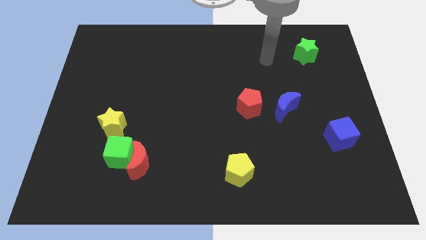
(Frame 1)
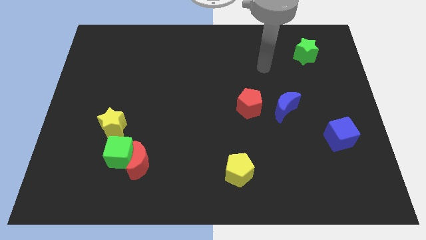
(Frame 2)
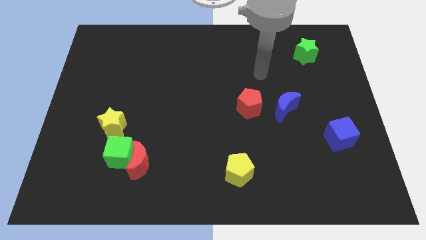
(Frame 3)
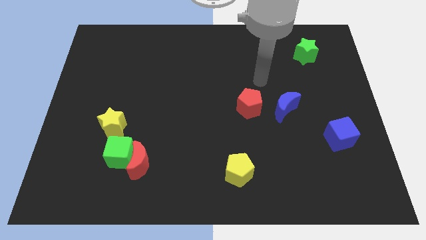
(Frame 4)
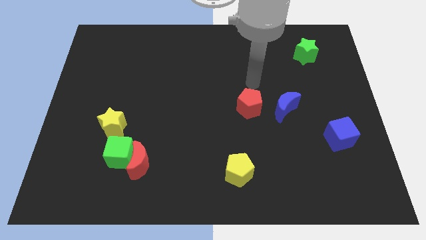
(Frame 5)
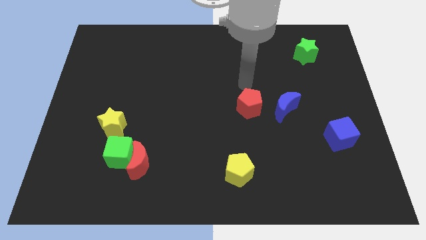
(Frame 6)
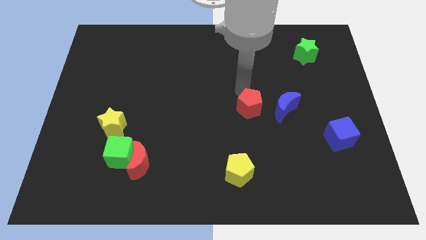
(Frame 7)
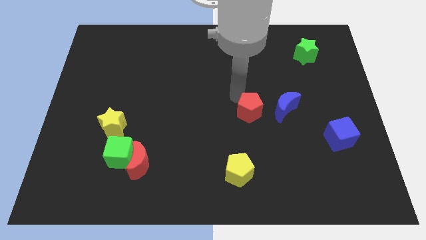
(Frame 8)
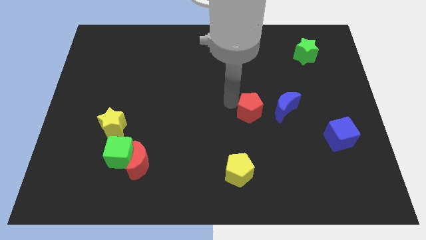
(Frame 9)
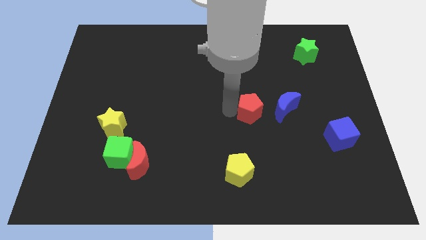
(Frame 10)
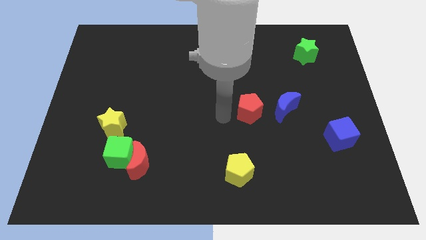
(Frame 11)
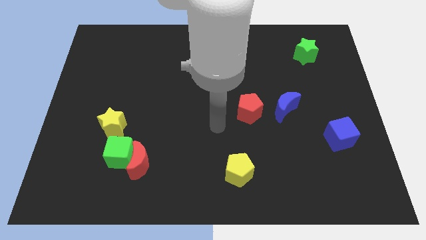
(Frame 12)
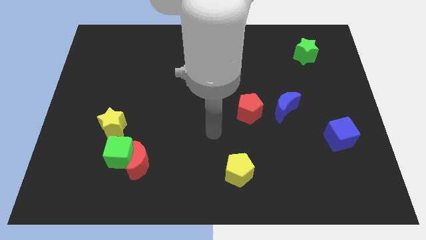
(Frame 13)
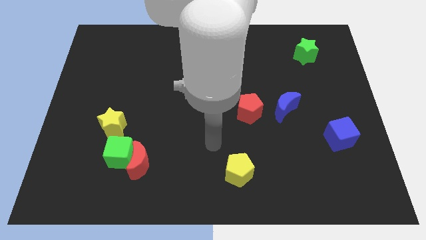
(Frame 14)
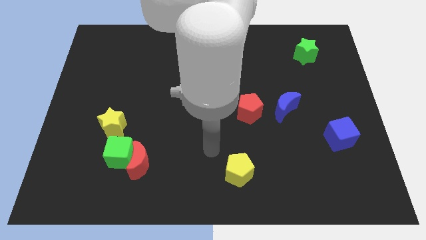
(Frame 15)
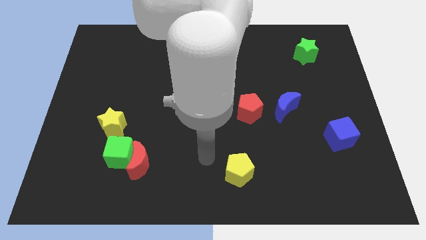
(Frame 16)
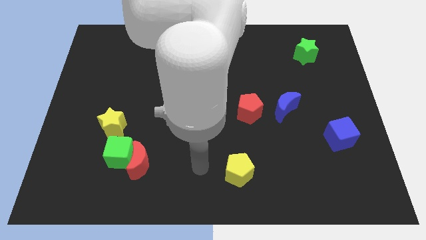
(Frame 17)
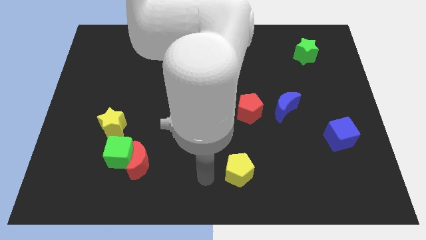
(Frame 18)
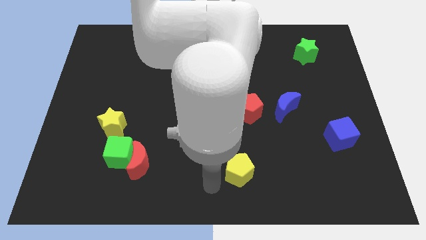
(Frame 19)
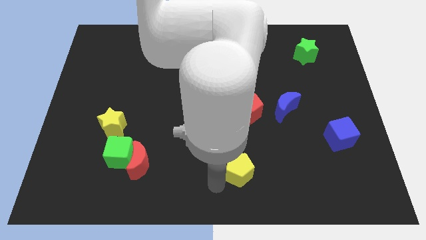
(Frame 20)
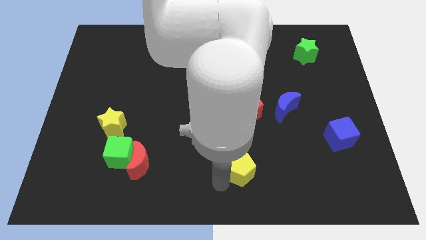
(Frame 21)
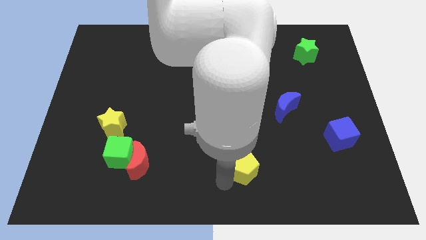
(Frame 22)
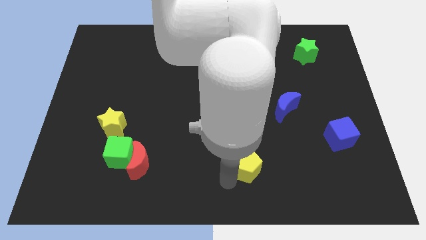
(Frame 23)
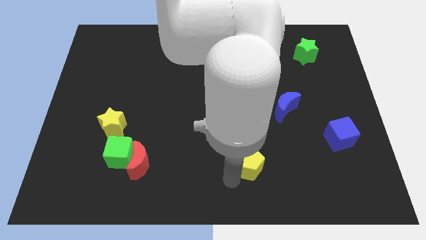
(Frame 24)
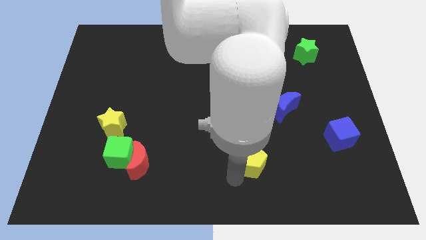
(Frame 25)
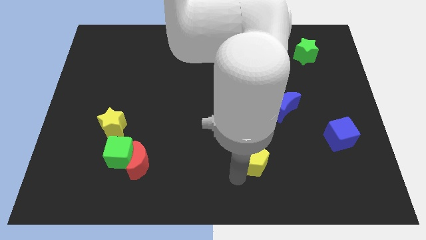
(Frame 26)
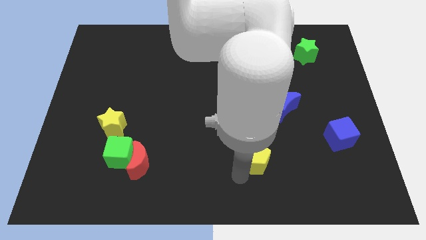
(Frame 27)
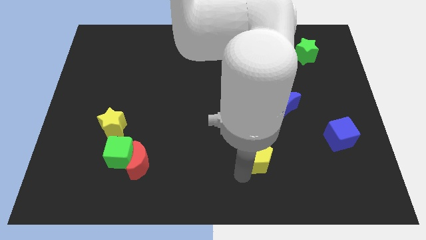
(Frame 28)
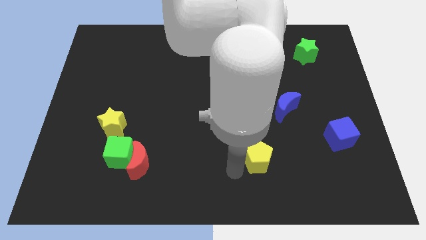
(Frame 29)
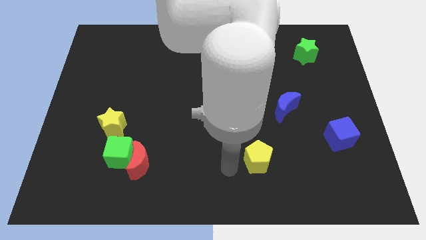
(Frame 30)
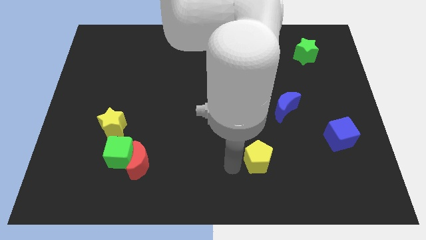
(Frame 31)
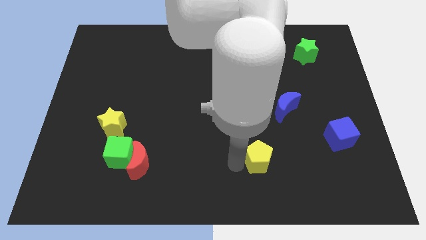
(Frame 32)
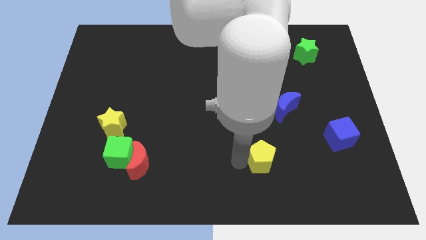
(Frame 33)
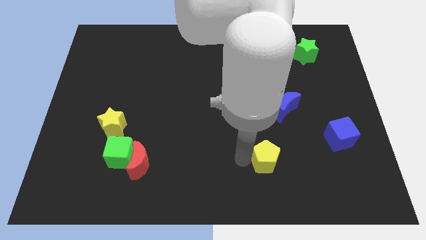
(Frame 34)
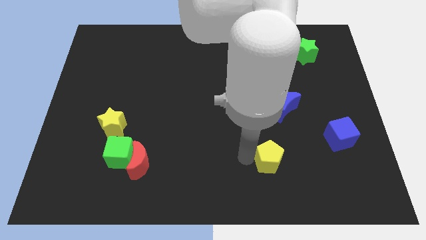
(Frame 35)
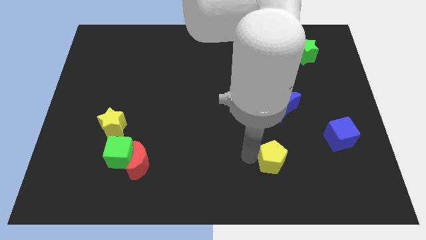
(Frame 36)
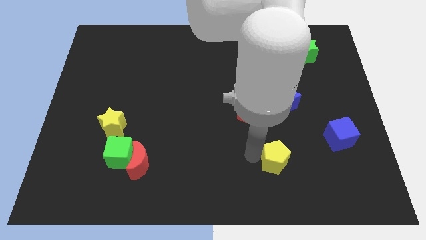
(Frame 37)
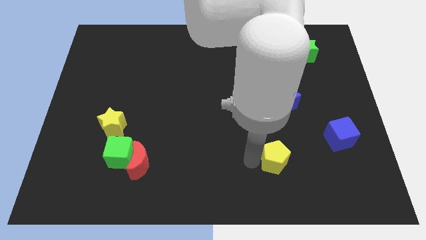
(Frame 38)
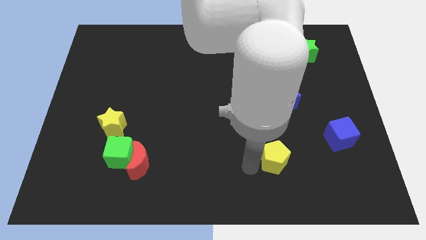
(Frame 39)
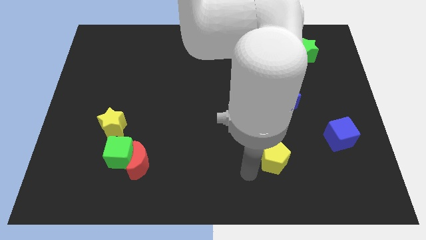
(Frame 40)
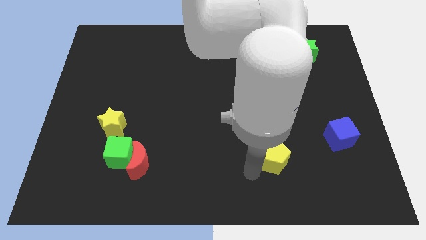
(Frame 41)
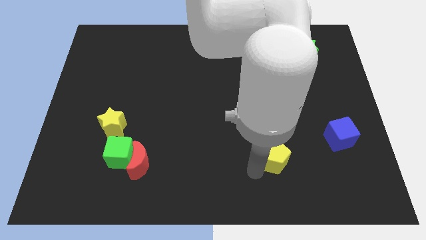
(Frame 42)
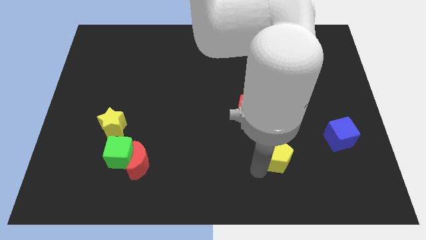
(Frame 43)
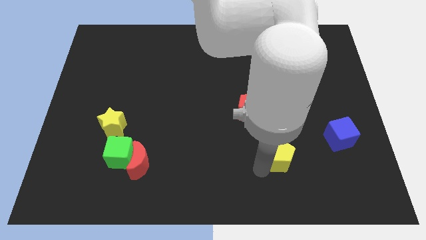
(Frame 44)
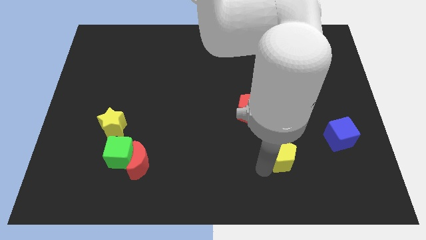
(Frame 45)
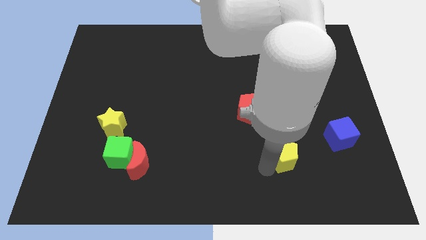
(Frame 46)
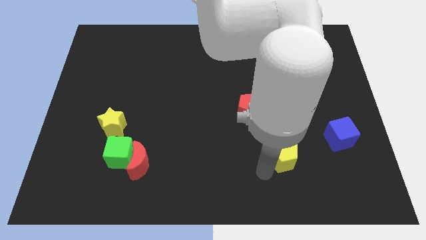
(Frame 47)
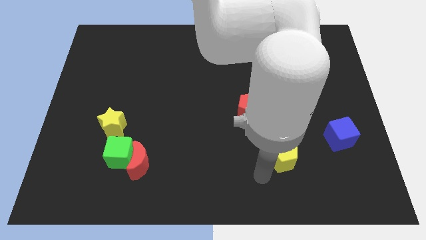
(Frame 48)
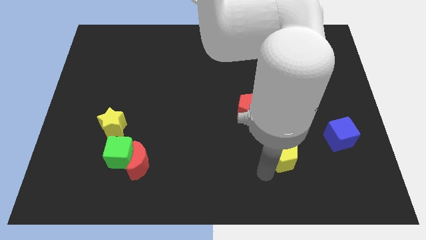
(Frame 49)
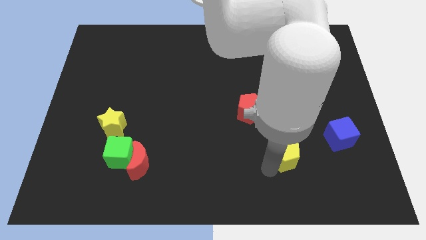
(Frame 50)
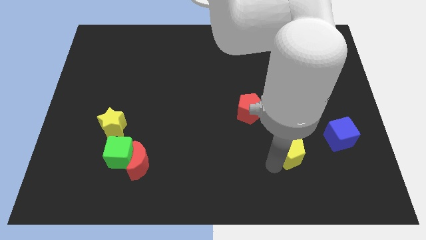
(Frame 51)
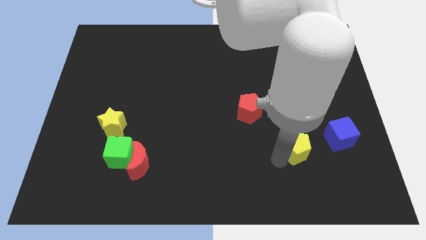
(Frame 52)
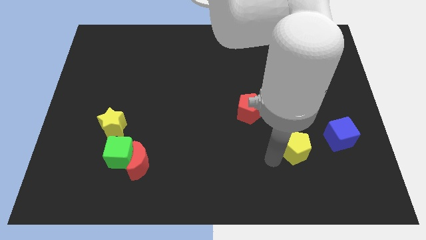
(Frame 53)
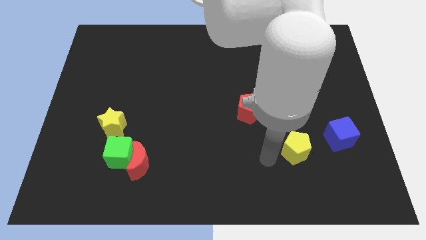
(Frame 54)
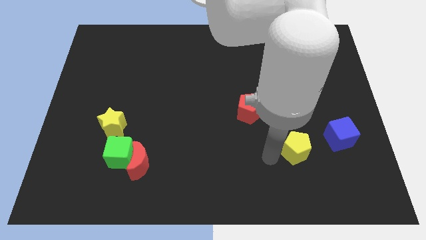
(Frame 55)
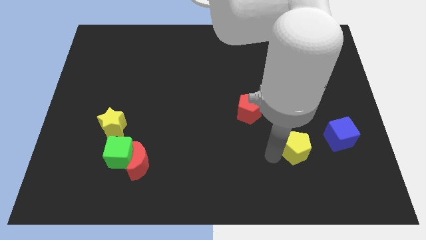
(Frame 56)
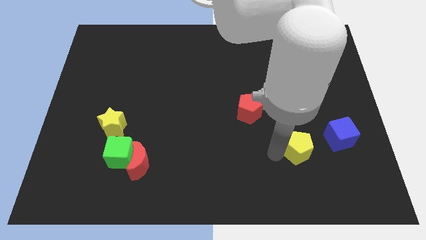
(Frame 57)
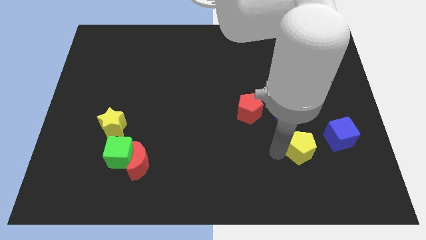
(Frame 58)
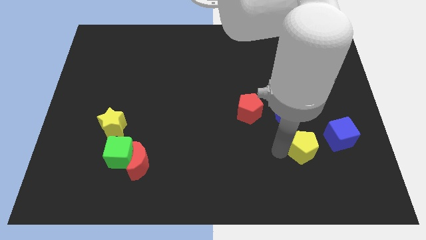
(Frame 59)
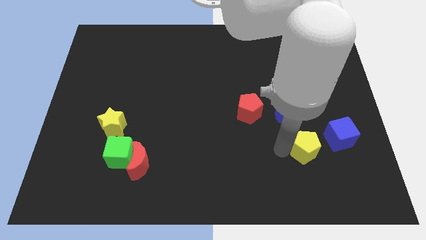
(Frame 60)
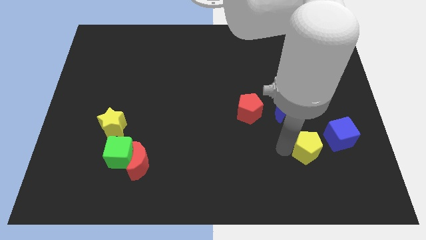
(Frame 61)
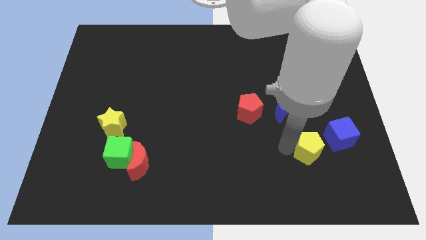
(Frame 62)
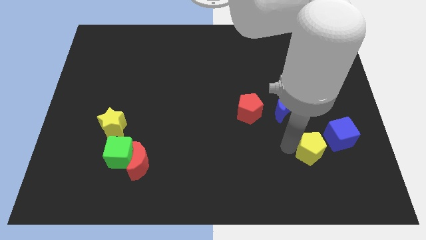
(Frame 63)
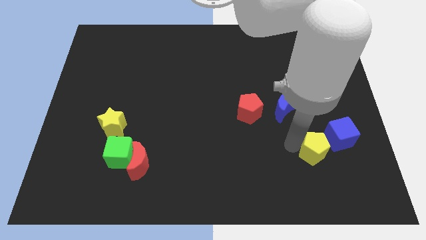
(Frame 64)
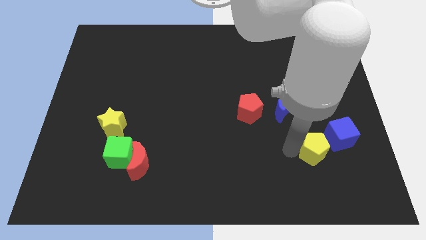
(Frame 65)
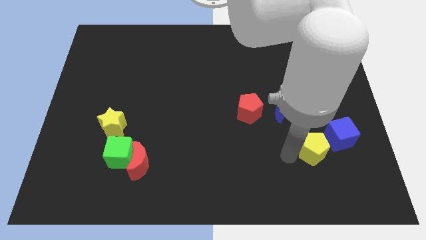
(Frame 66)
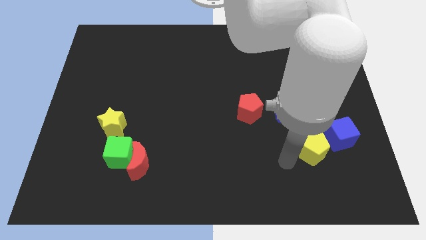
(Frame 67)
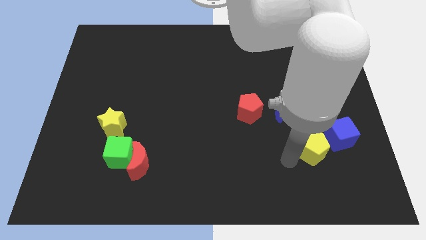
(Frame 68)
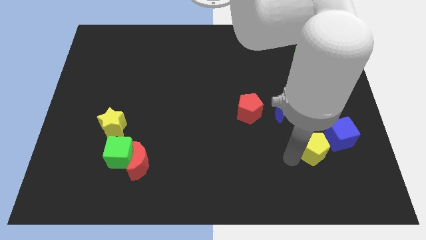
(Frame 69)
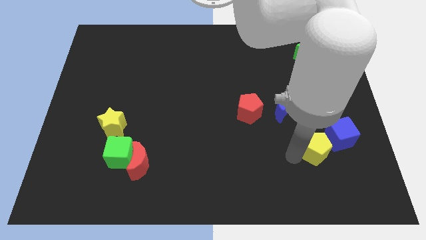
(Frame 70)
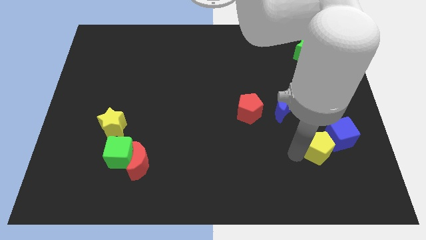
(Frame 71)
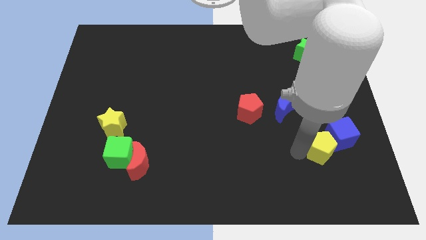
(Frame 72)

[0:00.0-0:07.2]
put the yellow pentagon to the blue cube

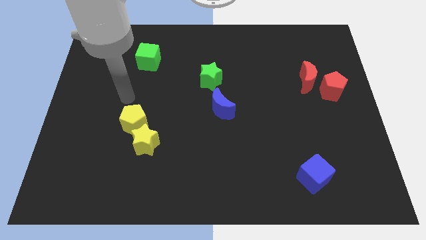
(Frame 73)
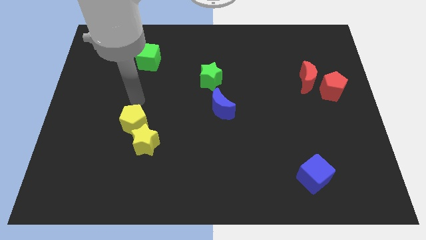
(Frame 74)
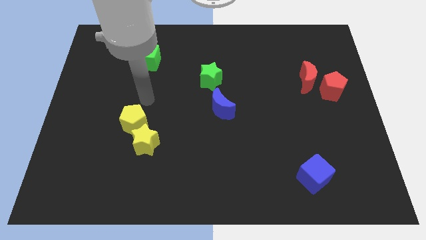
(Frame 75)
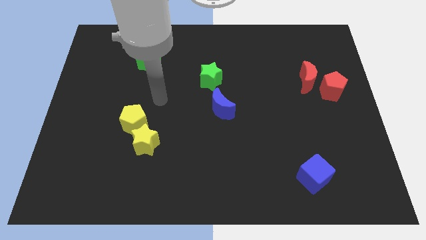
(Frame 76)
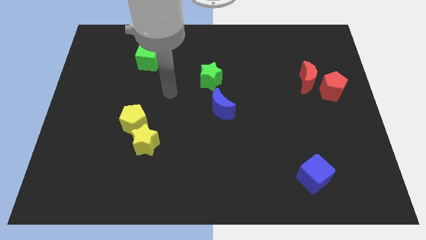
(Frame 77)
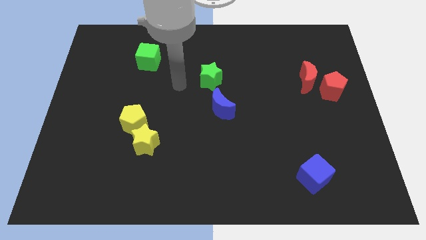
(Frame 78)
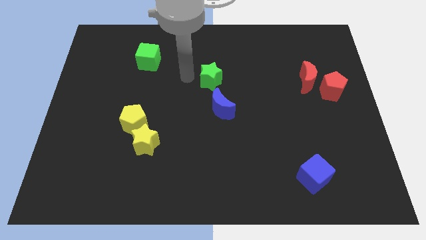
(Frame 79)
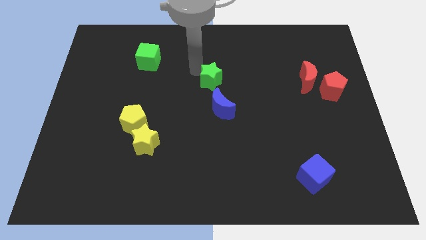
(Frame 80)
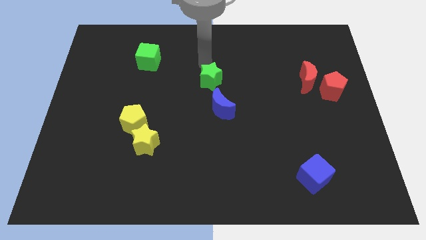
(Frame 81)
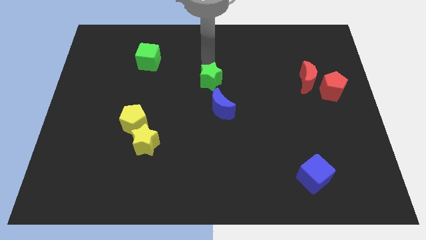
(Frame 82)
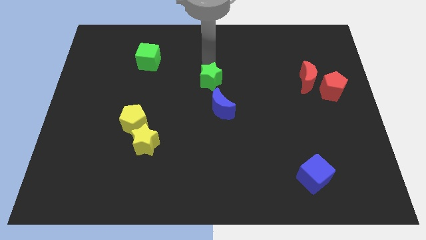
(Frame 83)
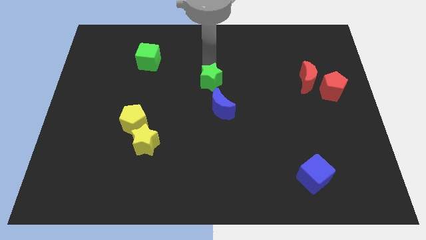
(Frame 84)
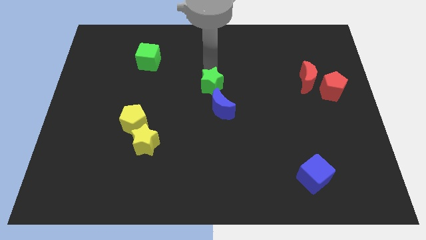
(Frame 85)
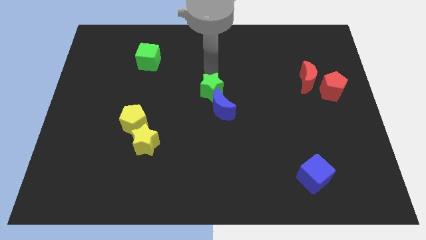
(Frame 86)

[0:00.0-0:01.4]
put the green star next to the blue moon
